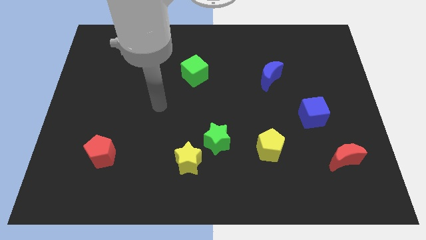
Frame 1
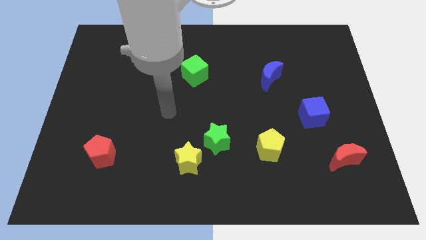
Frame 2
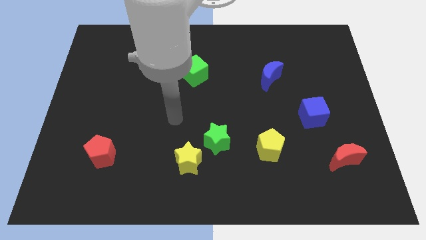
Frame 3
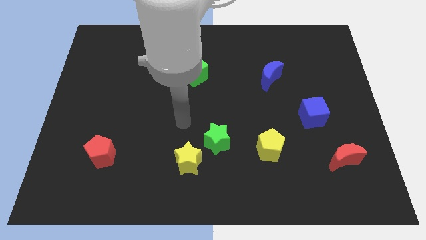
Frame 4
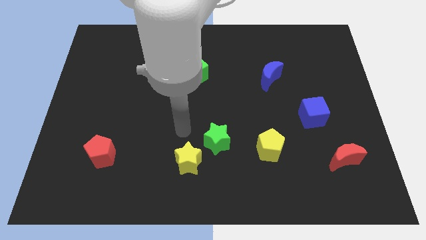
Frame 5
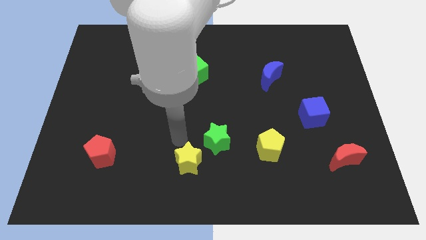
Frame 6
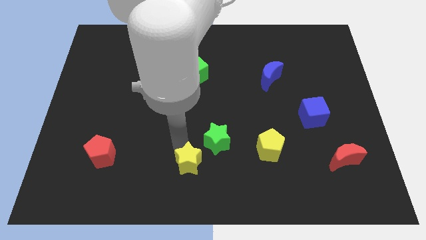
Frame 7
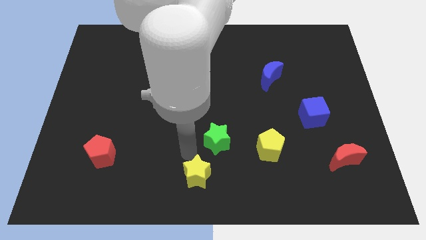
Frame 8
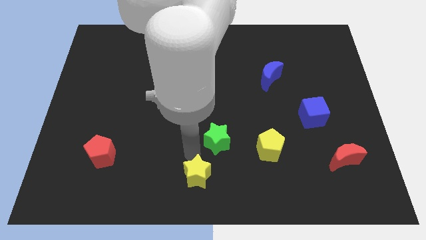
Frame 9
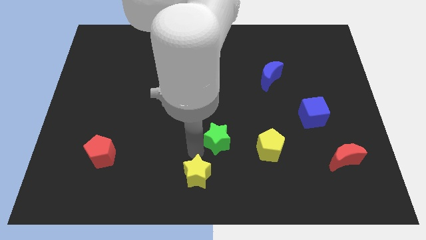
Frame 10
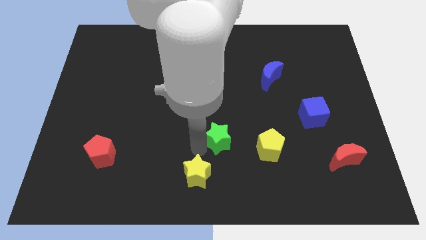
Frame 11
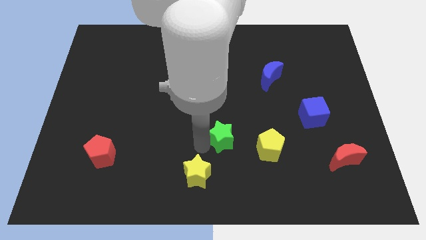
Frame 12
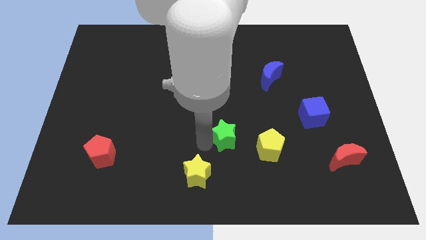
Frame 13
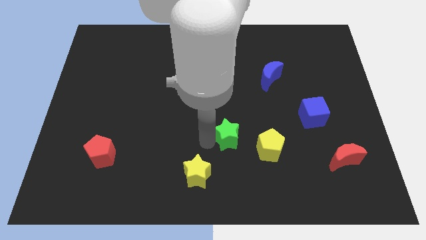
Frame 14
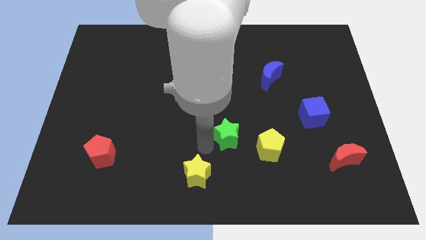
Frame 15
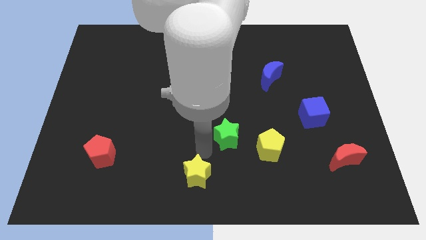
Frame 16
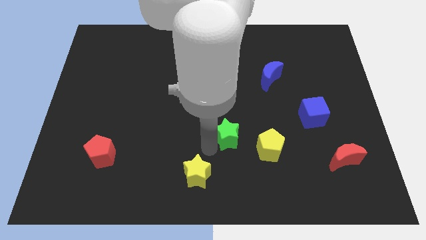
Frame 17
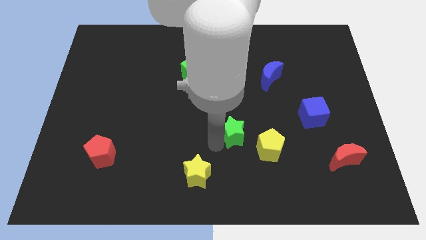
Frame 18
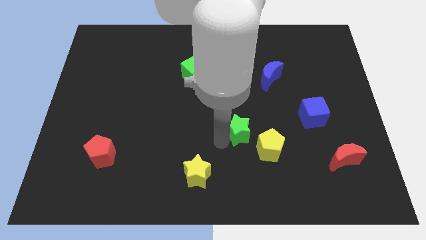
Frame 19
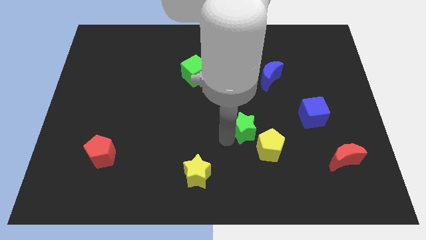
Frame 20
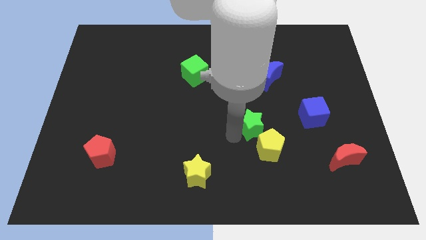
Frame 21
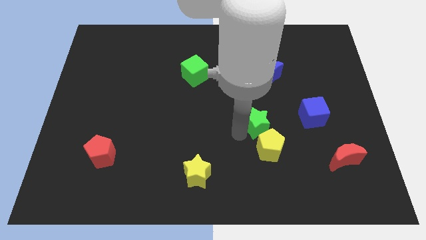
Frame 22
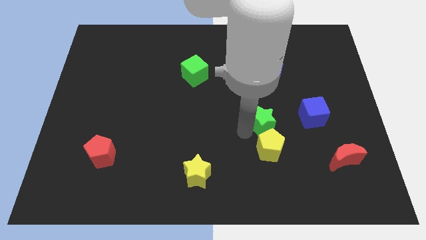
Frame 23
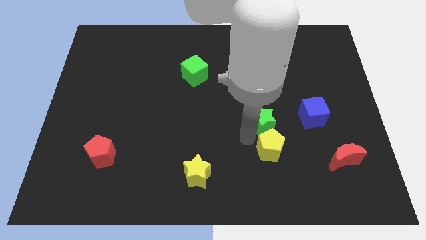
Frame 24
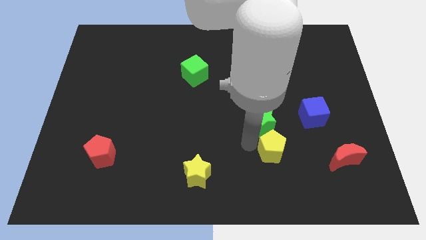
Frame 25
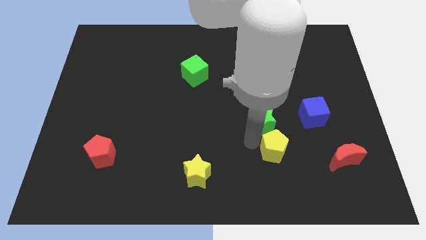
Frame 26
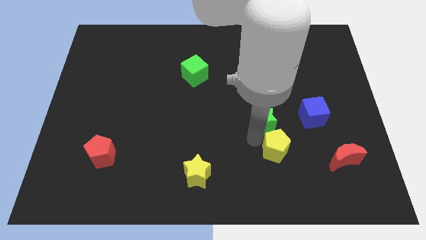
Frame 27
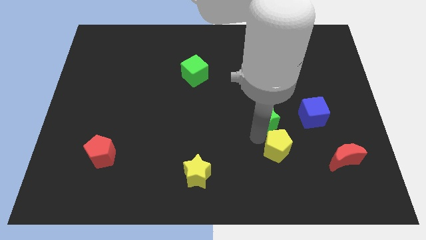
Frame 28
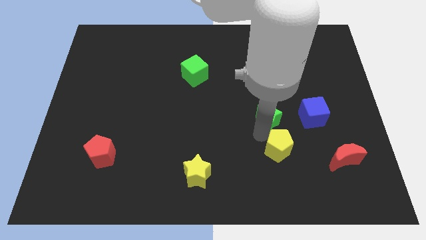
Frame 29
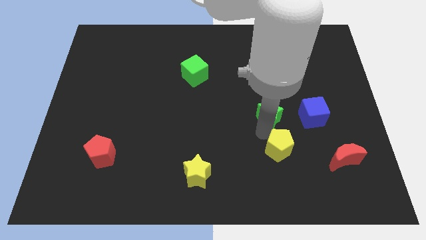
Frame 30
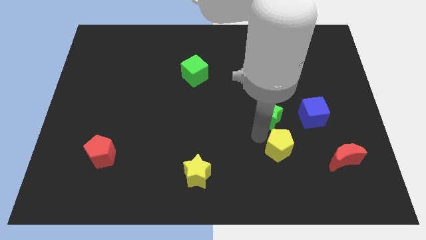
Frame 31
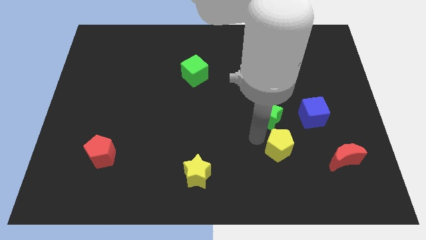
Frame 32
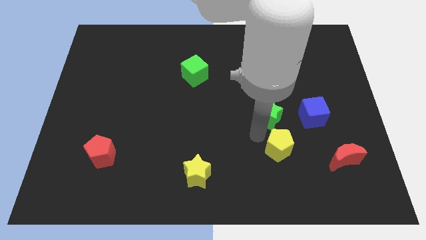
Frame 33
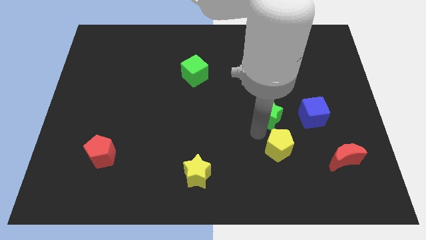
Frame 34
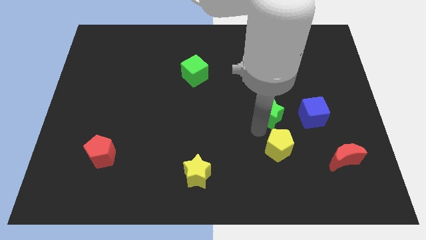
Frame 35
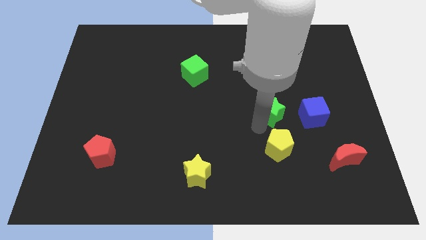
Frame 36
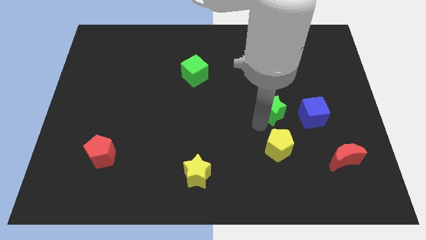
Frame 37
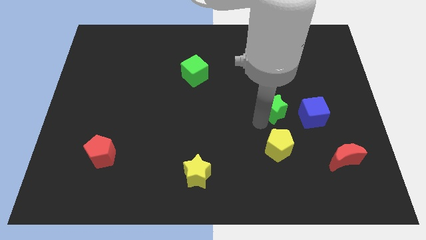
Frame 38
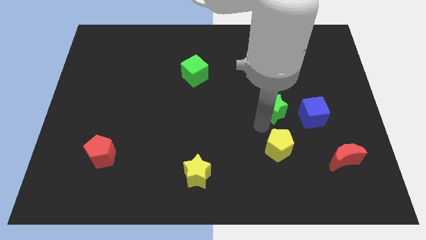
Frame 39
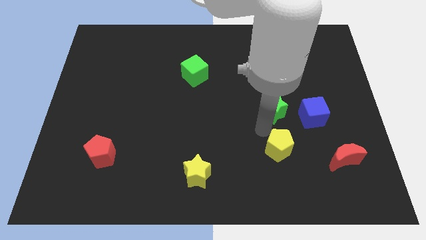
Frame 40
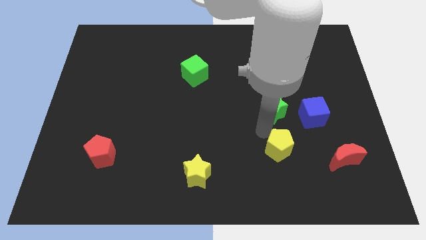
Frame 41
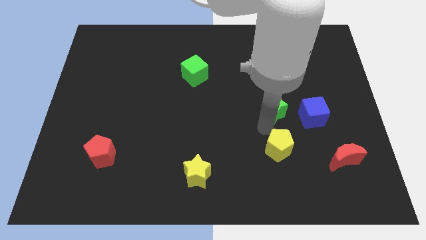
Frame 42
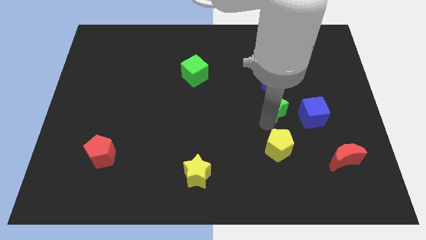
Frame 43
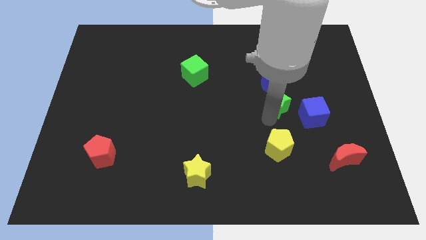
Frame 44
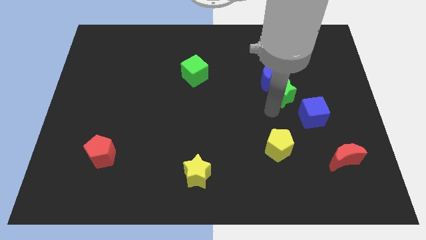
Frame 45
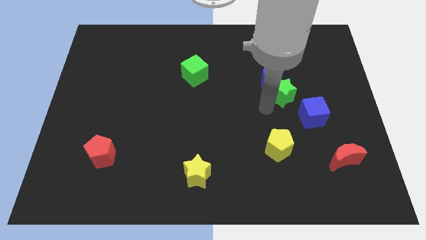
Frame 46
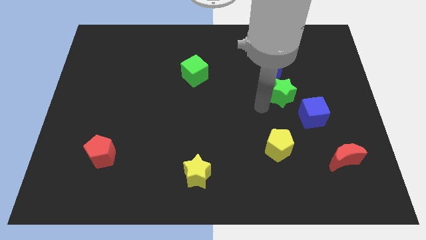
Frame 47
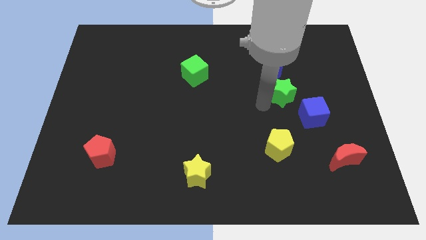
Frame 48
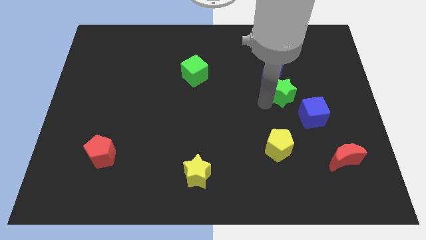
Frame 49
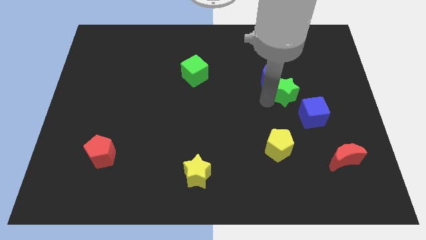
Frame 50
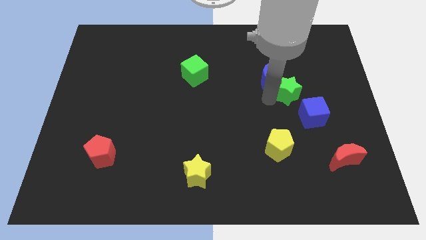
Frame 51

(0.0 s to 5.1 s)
slide the green star to the top side of the blue cube

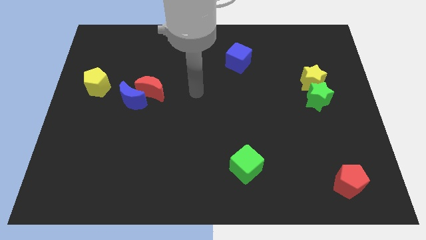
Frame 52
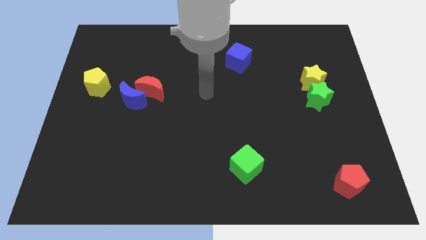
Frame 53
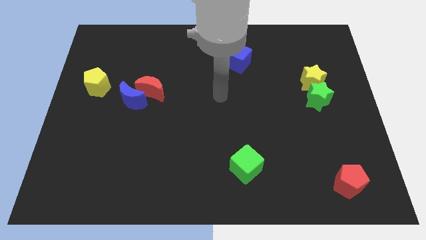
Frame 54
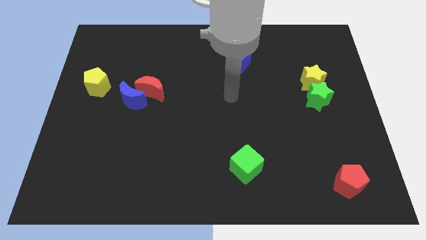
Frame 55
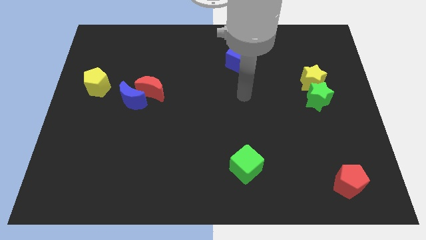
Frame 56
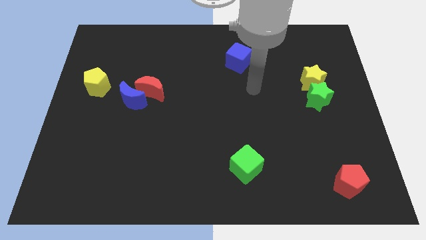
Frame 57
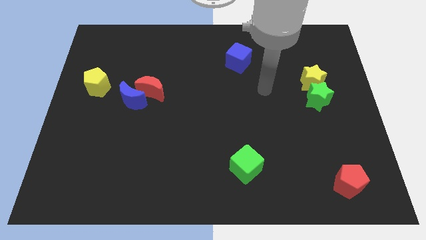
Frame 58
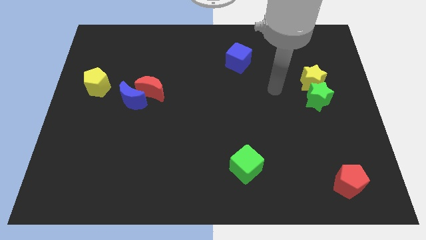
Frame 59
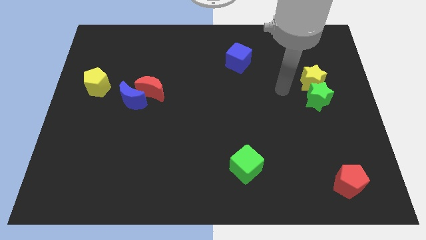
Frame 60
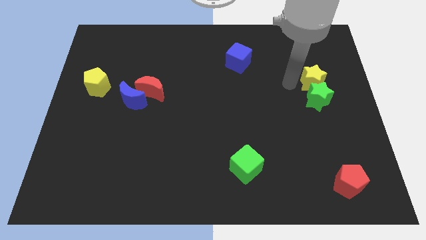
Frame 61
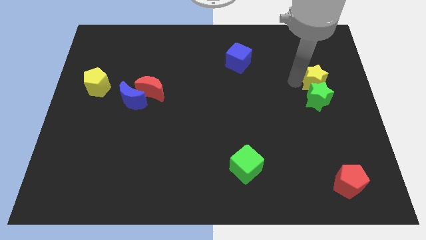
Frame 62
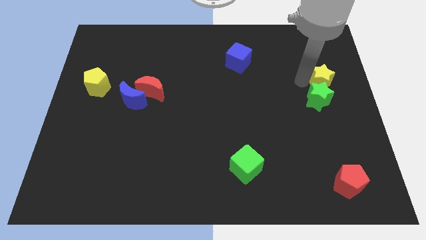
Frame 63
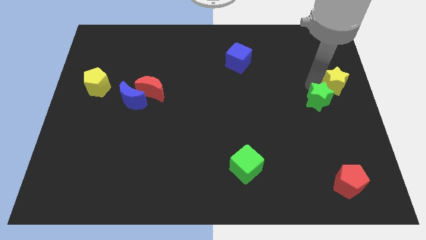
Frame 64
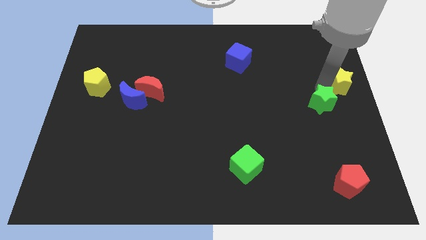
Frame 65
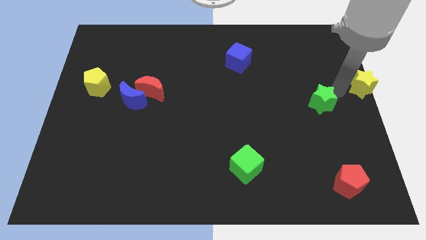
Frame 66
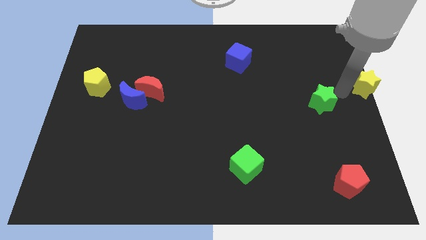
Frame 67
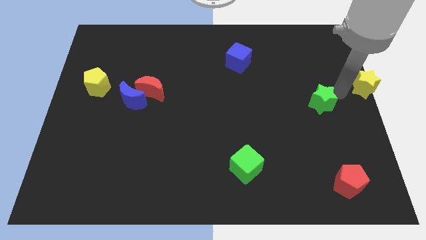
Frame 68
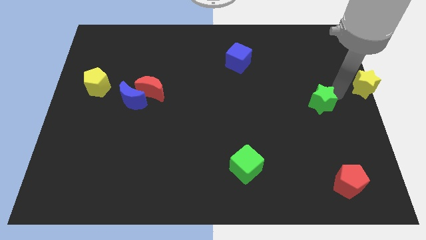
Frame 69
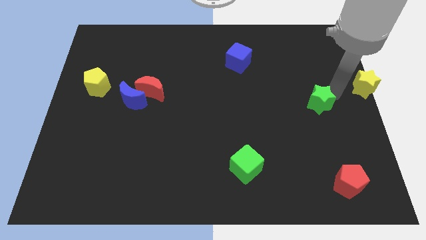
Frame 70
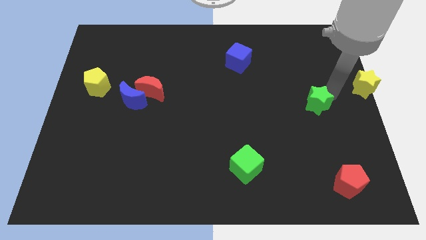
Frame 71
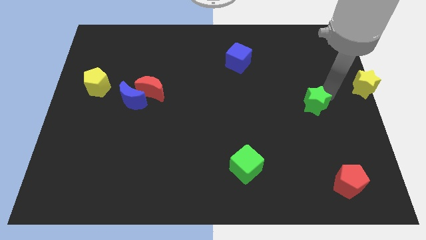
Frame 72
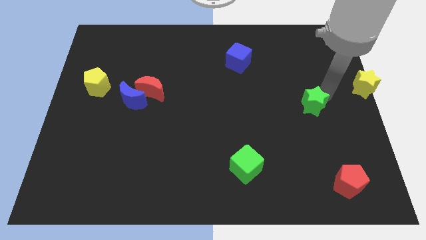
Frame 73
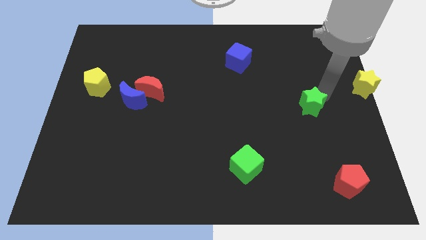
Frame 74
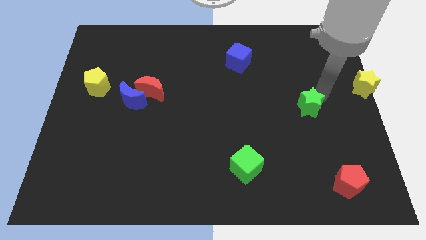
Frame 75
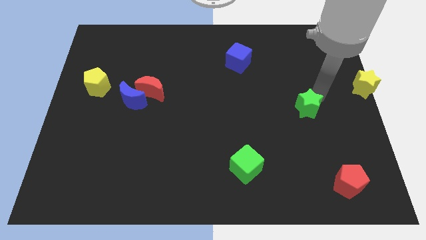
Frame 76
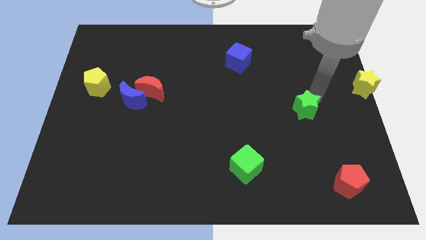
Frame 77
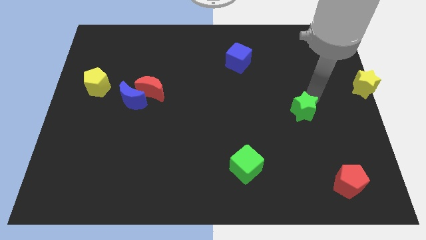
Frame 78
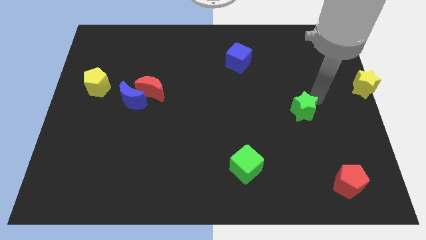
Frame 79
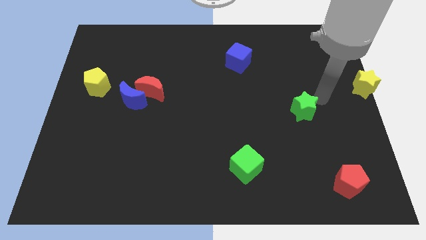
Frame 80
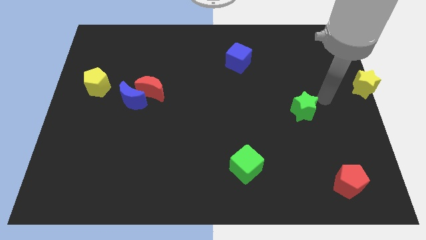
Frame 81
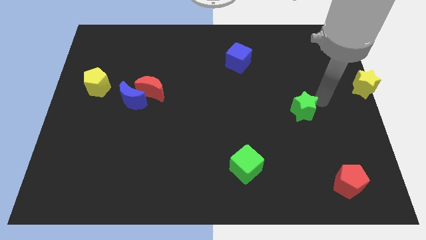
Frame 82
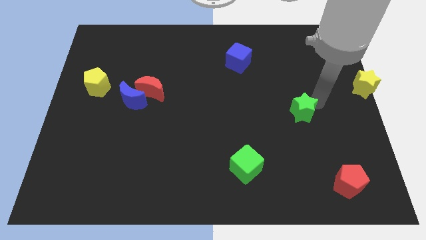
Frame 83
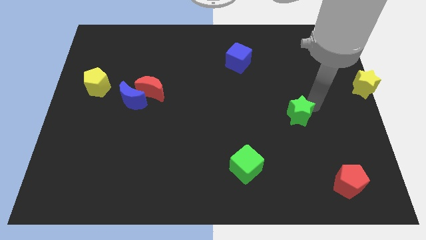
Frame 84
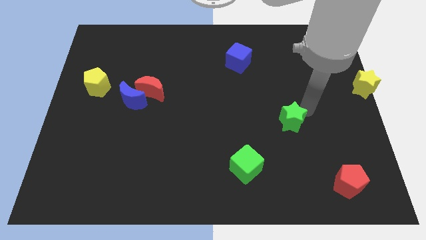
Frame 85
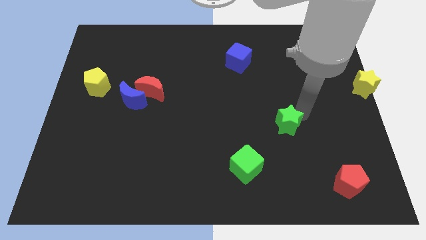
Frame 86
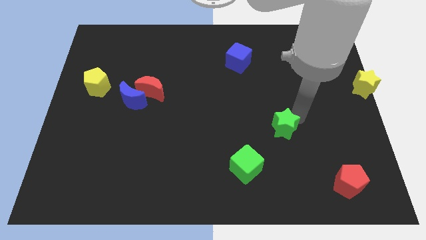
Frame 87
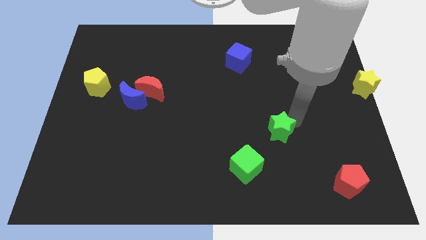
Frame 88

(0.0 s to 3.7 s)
put the green star to the top right of the green cube
